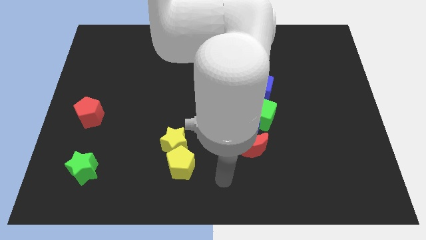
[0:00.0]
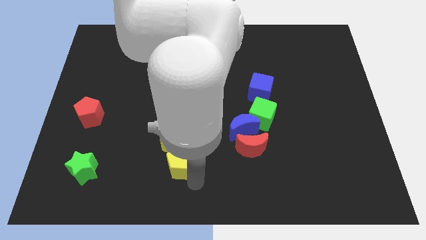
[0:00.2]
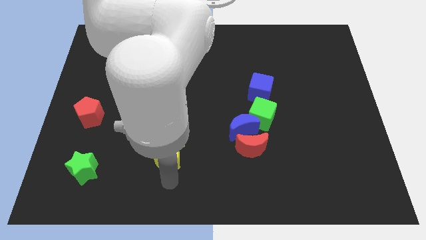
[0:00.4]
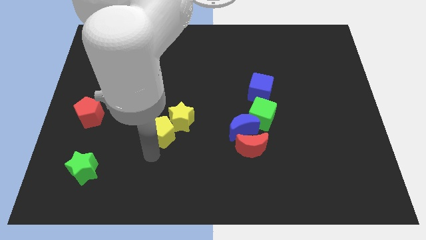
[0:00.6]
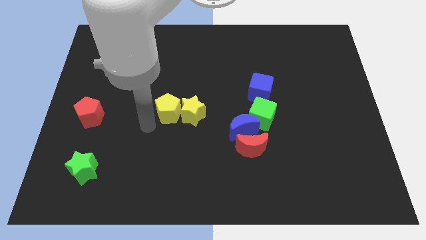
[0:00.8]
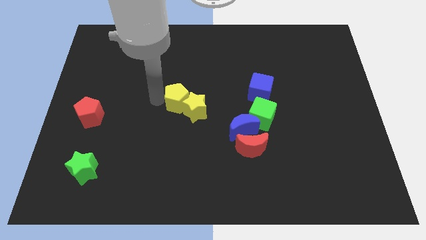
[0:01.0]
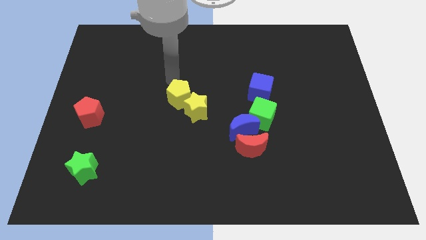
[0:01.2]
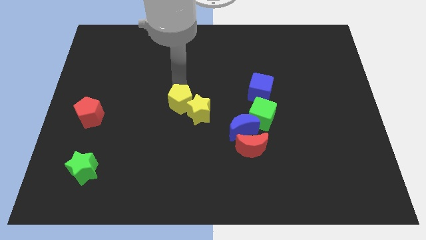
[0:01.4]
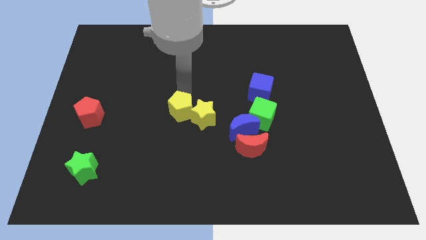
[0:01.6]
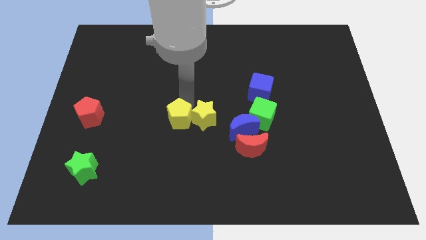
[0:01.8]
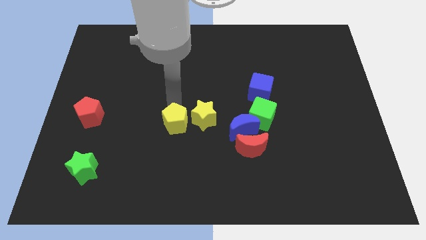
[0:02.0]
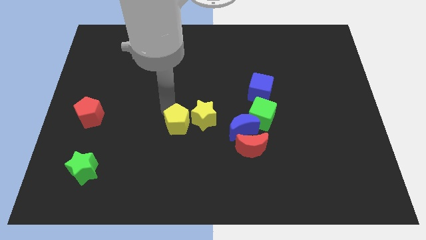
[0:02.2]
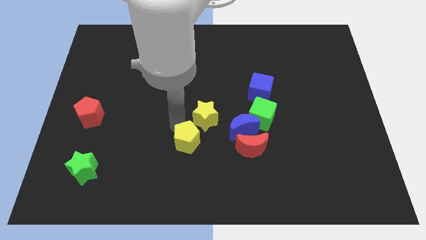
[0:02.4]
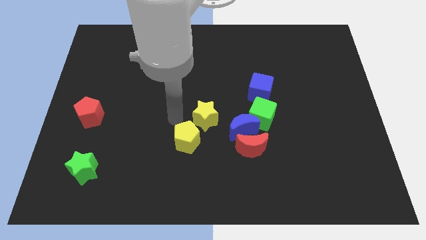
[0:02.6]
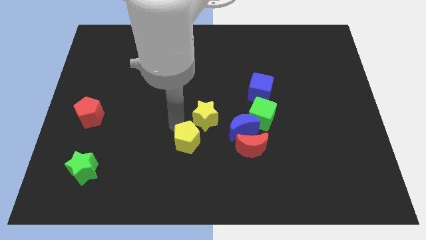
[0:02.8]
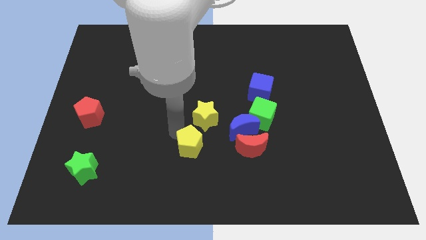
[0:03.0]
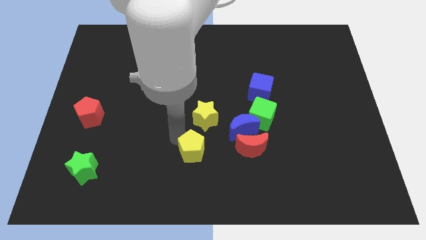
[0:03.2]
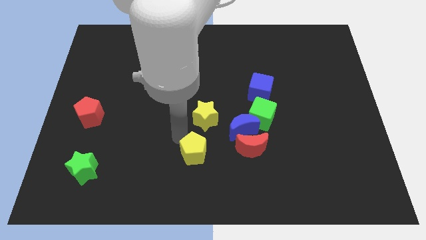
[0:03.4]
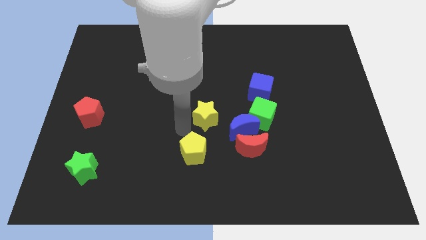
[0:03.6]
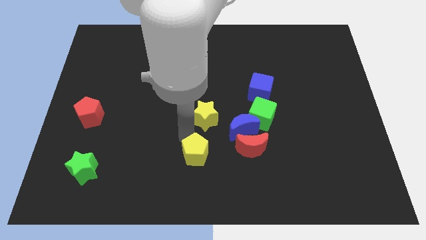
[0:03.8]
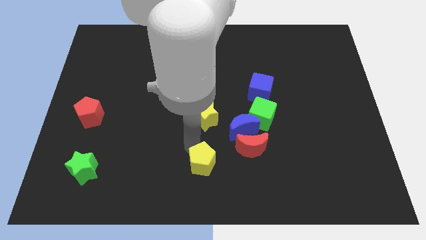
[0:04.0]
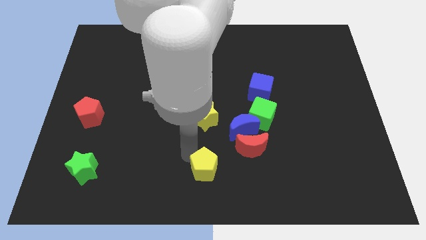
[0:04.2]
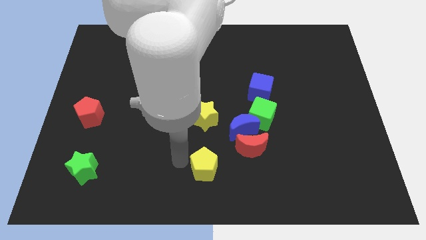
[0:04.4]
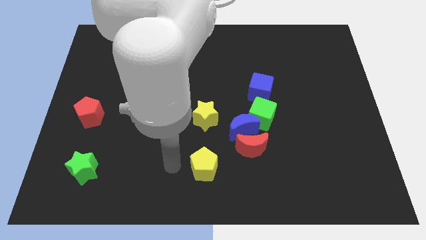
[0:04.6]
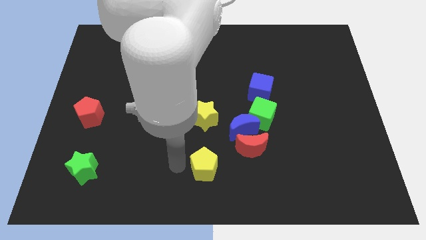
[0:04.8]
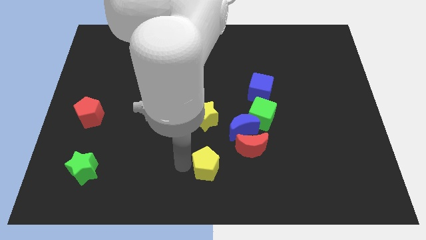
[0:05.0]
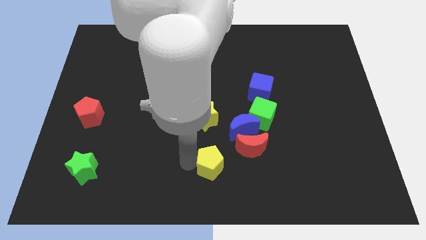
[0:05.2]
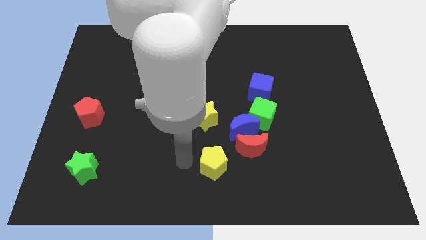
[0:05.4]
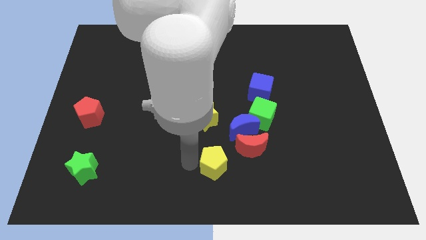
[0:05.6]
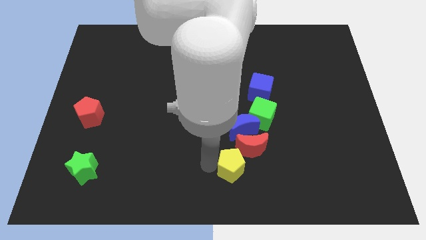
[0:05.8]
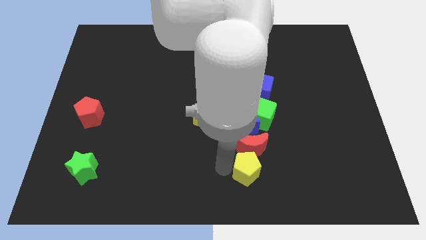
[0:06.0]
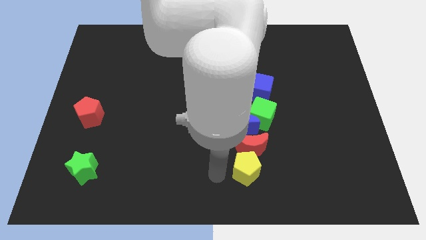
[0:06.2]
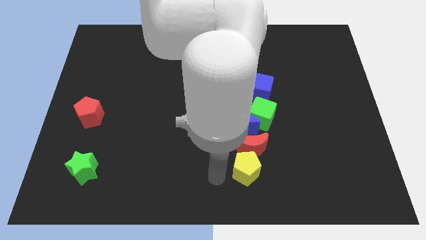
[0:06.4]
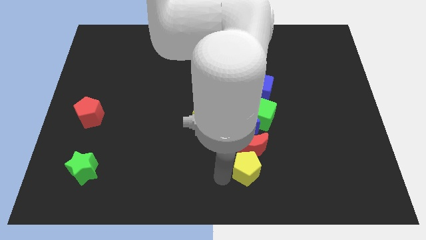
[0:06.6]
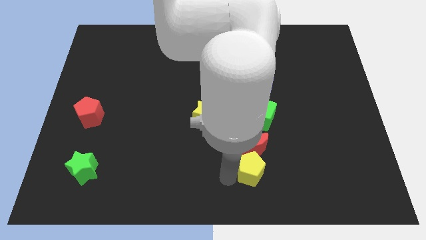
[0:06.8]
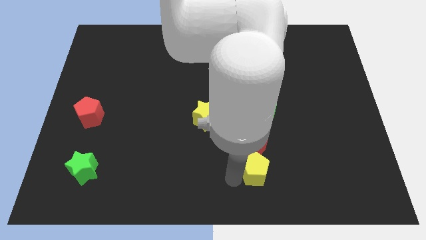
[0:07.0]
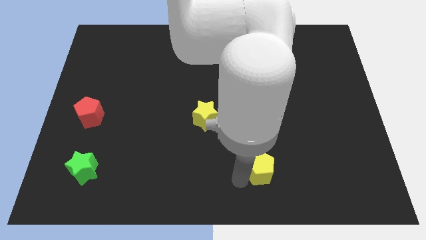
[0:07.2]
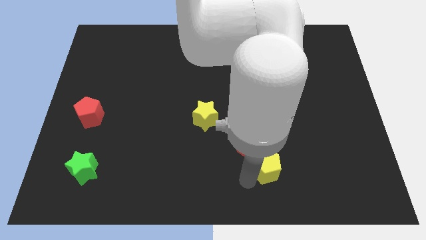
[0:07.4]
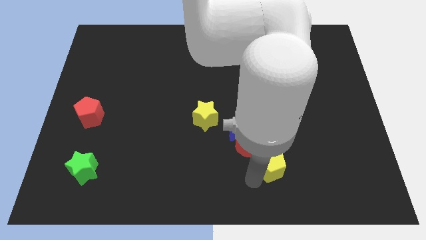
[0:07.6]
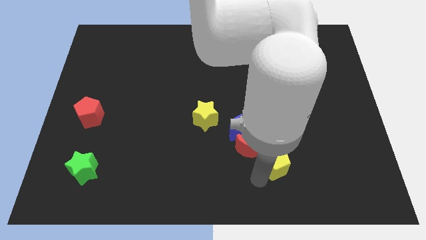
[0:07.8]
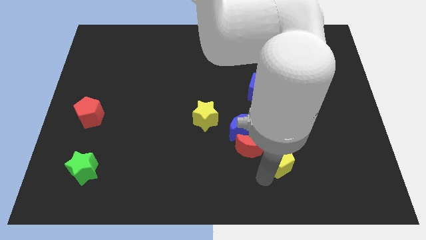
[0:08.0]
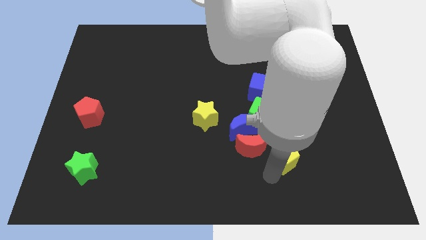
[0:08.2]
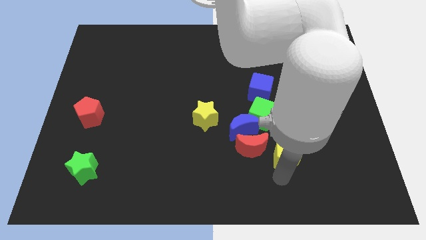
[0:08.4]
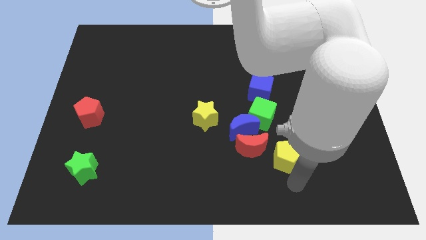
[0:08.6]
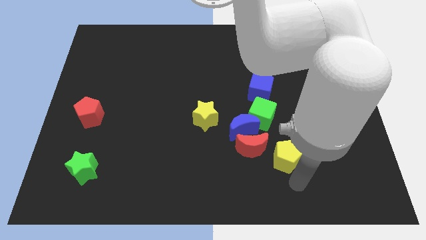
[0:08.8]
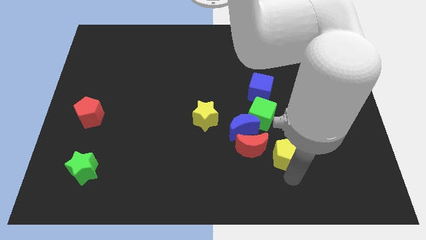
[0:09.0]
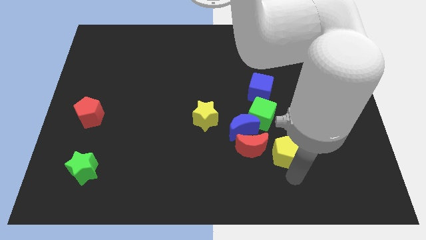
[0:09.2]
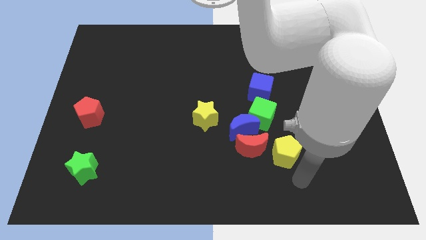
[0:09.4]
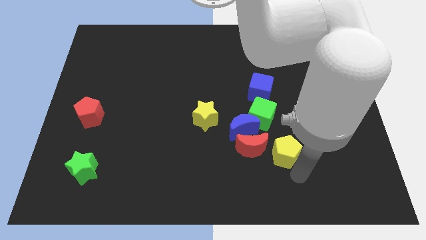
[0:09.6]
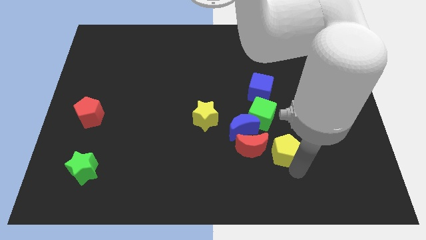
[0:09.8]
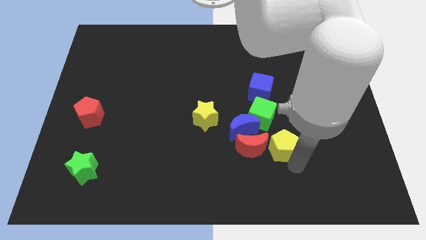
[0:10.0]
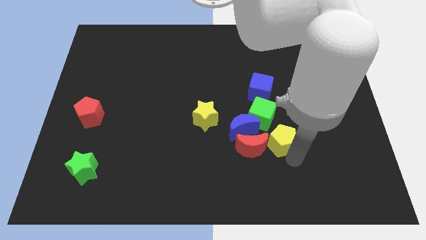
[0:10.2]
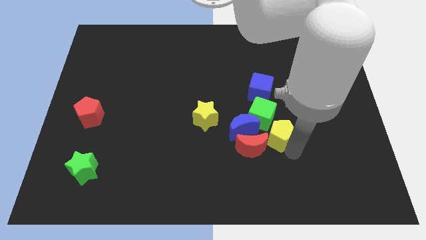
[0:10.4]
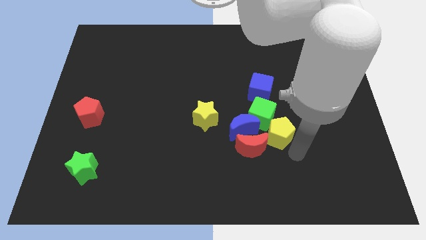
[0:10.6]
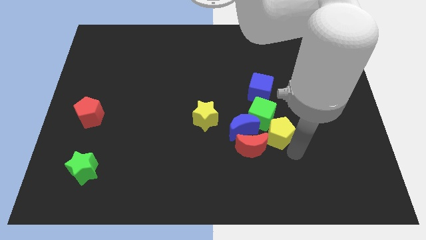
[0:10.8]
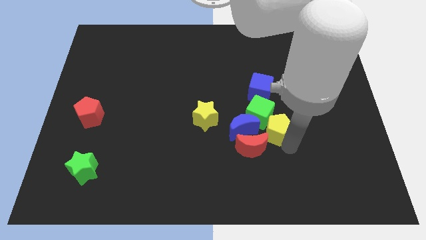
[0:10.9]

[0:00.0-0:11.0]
put the yellow pentagon to the green cube
